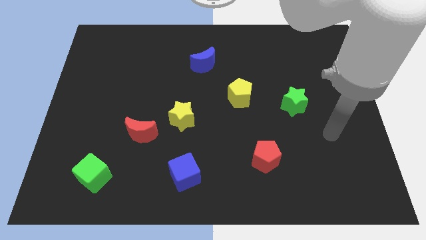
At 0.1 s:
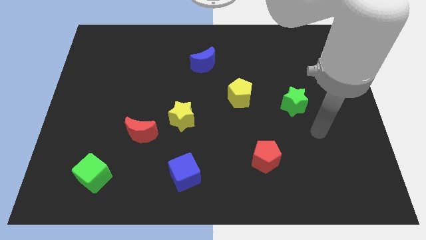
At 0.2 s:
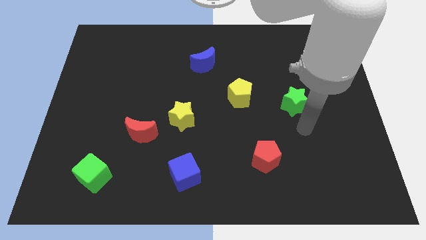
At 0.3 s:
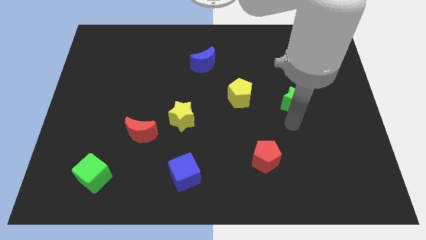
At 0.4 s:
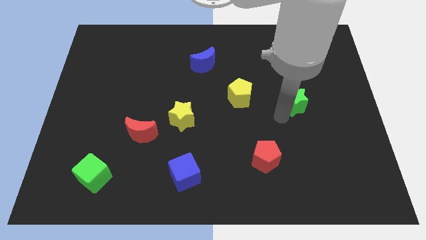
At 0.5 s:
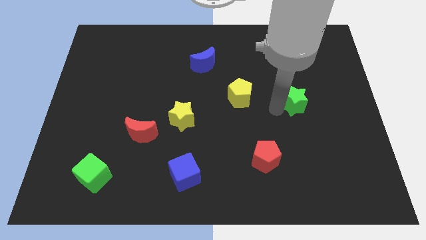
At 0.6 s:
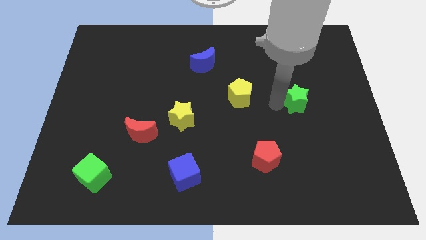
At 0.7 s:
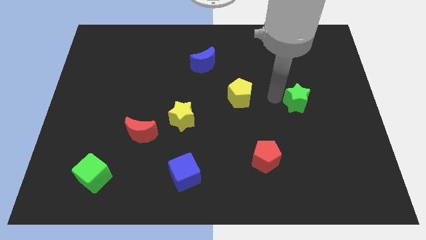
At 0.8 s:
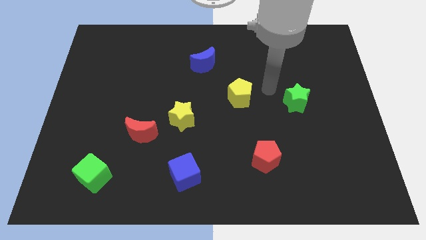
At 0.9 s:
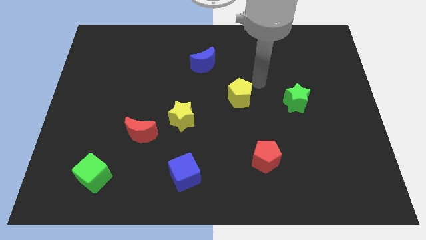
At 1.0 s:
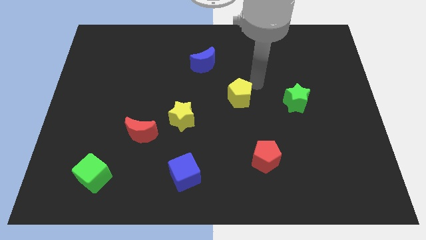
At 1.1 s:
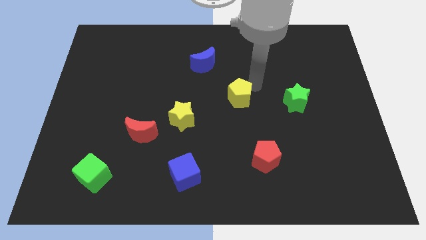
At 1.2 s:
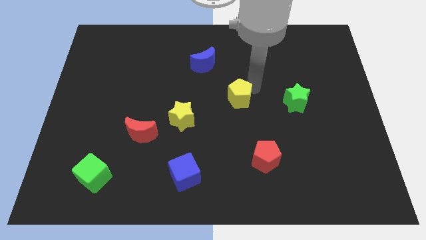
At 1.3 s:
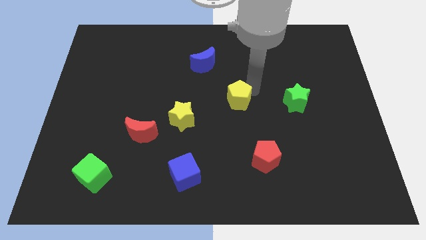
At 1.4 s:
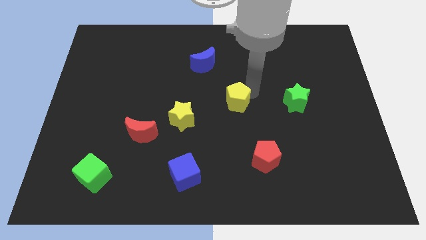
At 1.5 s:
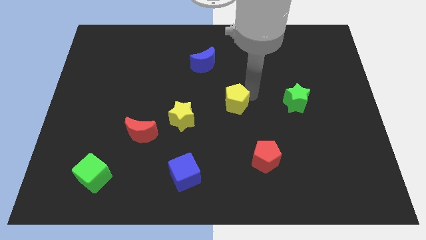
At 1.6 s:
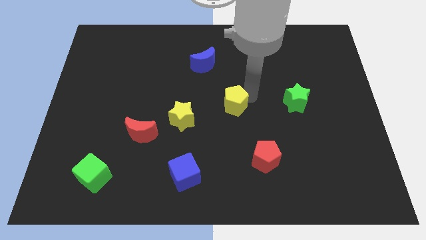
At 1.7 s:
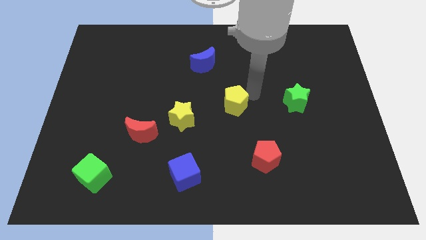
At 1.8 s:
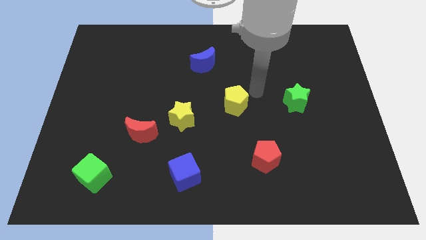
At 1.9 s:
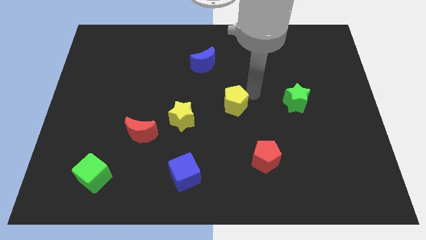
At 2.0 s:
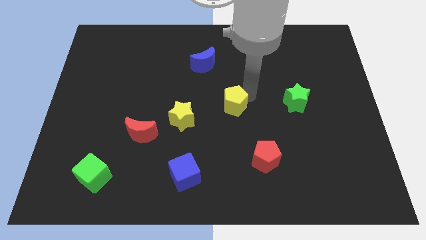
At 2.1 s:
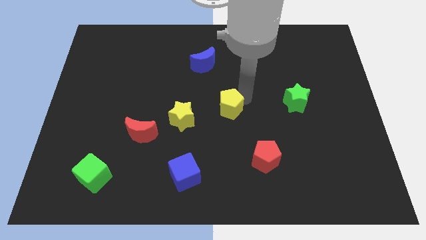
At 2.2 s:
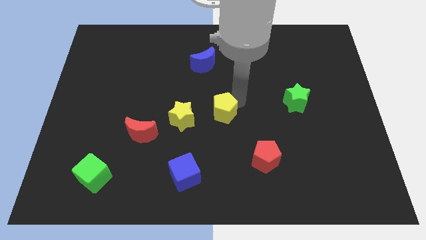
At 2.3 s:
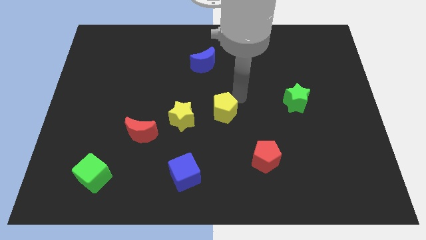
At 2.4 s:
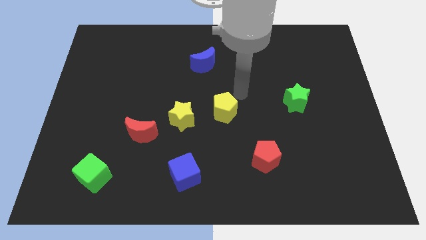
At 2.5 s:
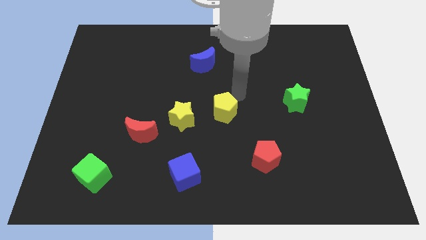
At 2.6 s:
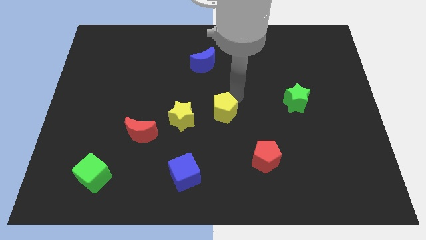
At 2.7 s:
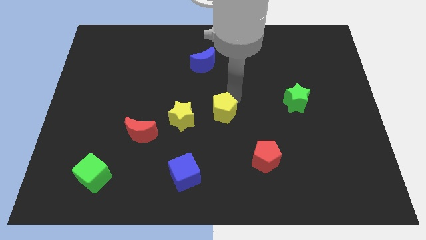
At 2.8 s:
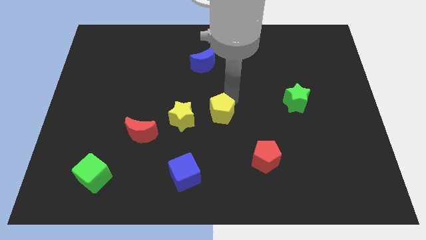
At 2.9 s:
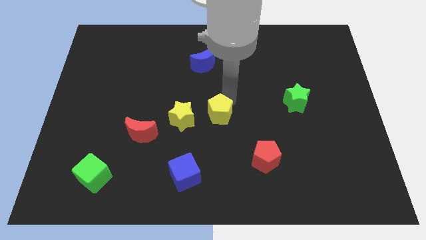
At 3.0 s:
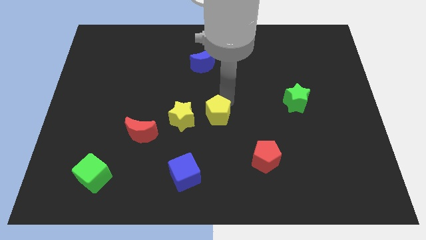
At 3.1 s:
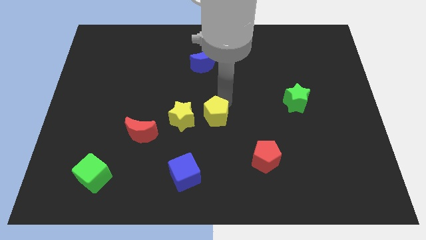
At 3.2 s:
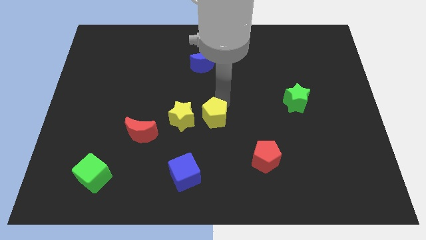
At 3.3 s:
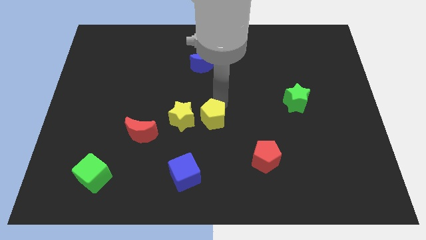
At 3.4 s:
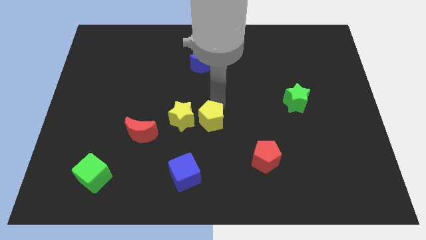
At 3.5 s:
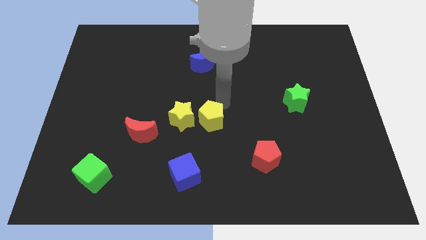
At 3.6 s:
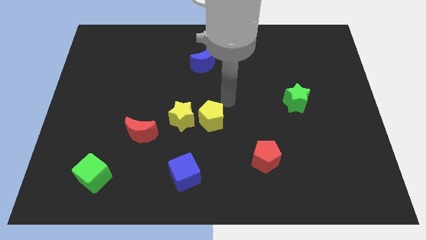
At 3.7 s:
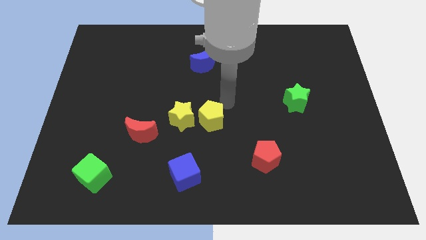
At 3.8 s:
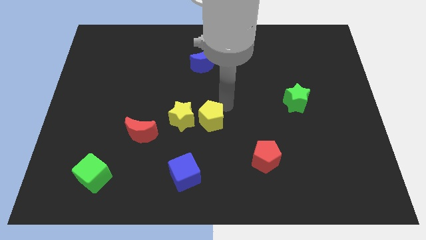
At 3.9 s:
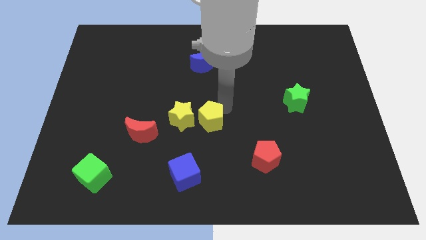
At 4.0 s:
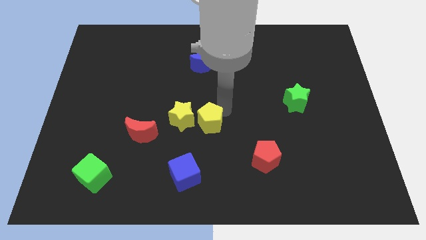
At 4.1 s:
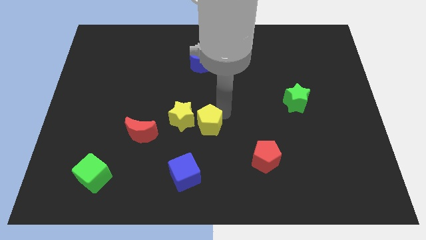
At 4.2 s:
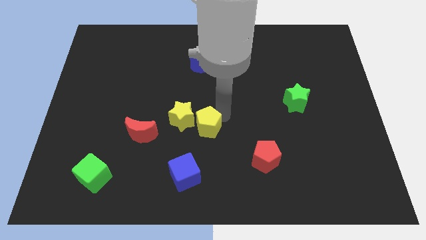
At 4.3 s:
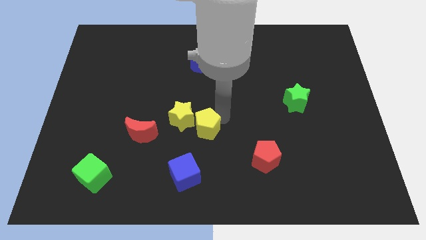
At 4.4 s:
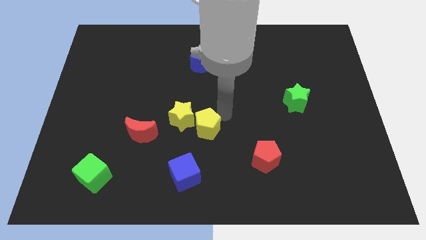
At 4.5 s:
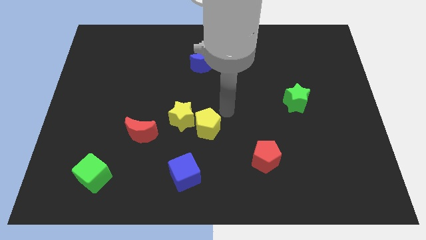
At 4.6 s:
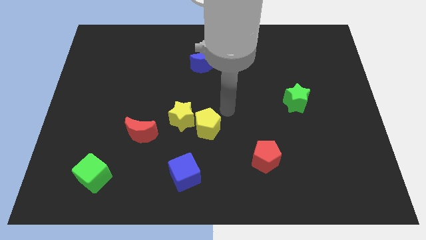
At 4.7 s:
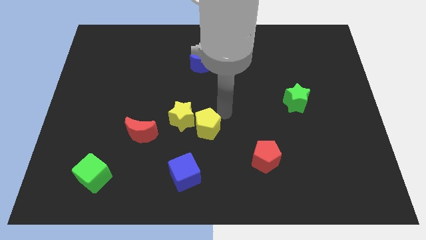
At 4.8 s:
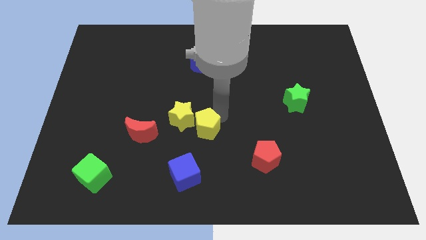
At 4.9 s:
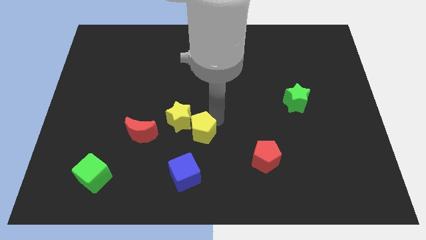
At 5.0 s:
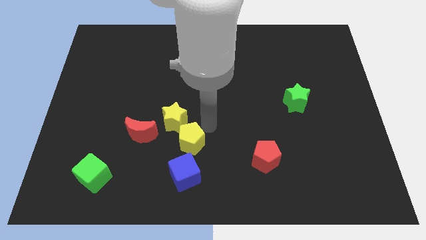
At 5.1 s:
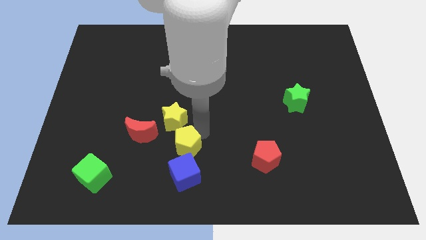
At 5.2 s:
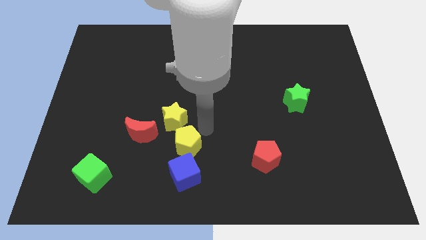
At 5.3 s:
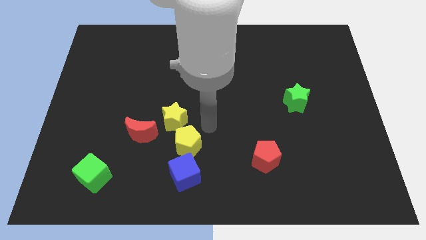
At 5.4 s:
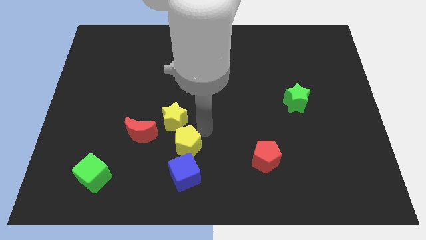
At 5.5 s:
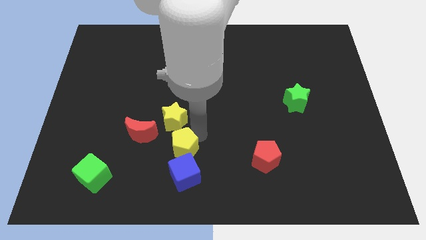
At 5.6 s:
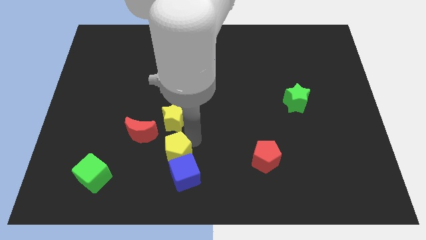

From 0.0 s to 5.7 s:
push the yellow pentagon diagonally downwards and left

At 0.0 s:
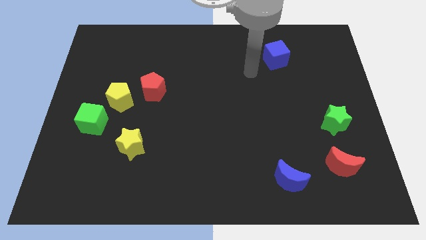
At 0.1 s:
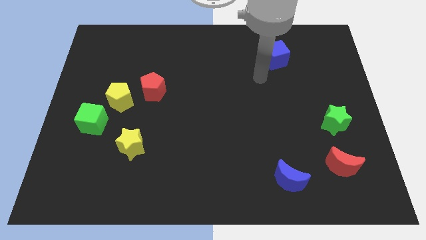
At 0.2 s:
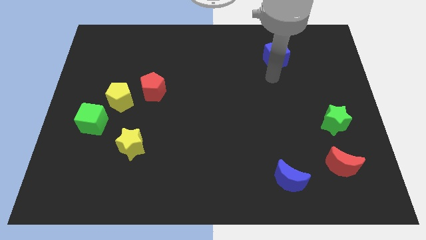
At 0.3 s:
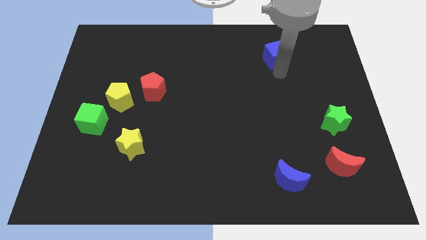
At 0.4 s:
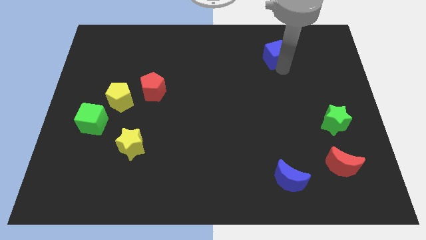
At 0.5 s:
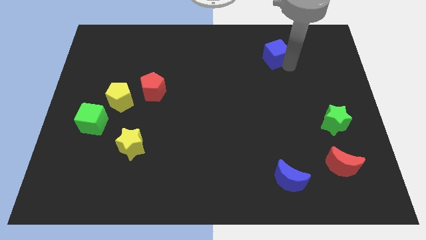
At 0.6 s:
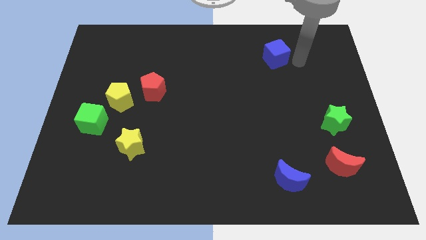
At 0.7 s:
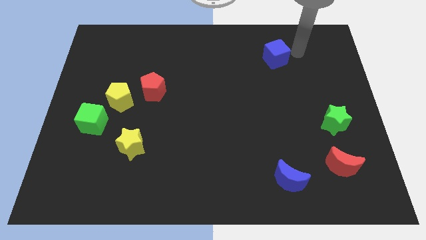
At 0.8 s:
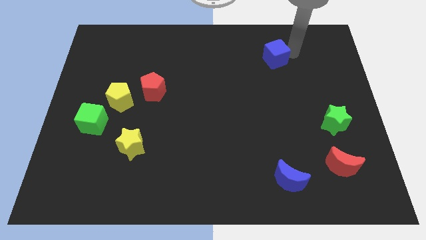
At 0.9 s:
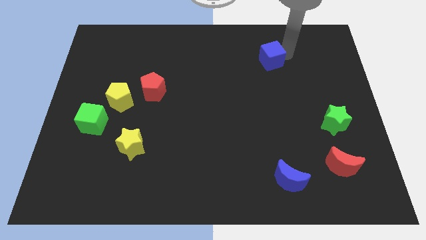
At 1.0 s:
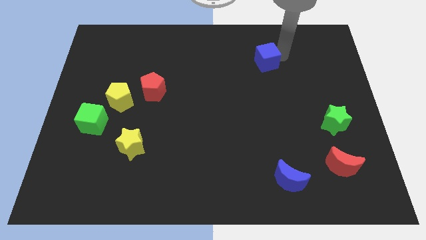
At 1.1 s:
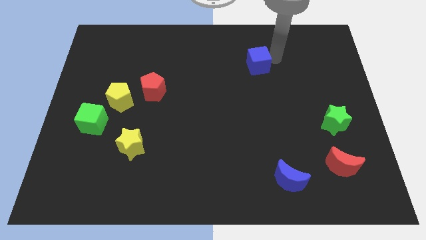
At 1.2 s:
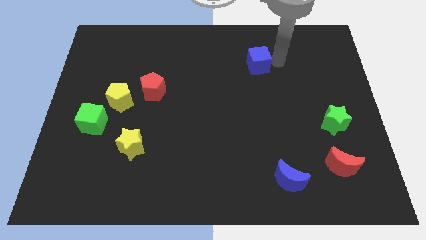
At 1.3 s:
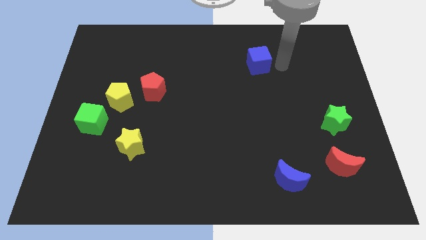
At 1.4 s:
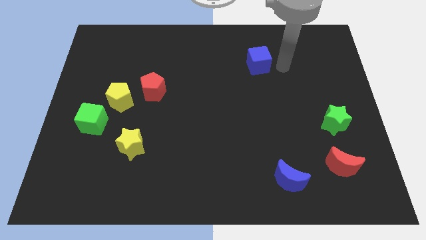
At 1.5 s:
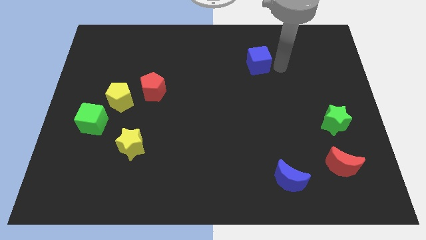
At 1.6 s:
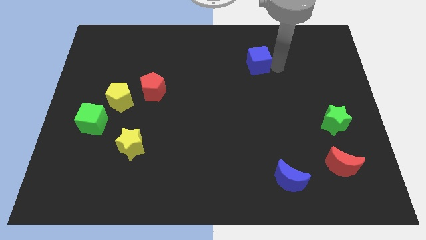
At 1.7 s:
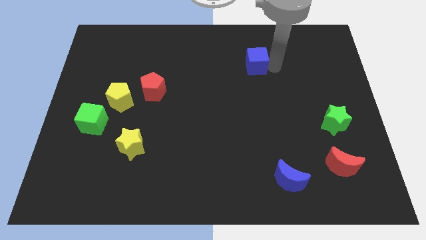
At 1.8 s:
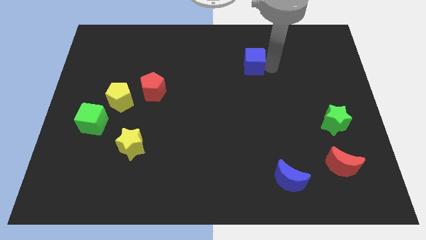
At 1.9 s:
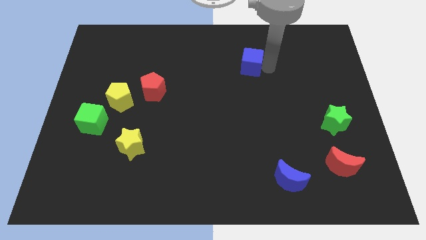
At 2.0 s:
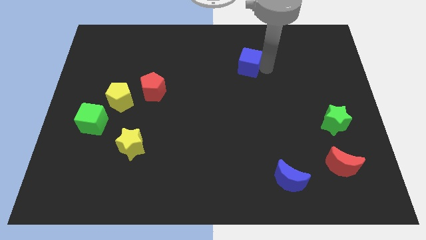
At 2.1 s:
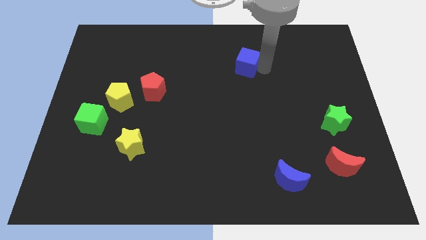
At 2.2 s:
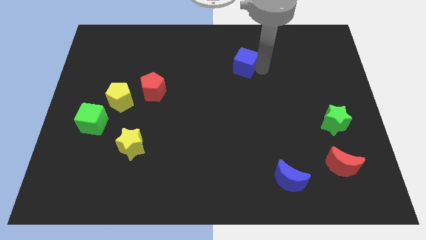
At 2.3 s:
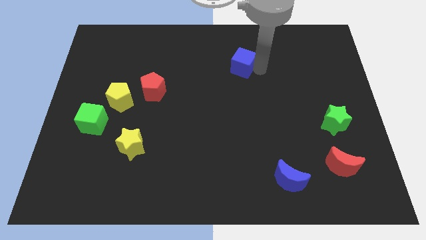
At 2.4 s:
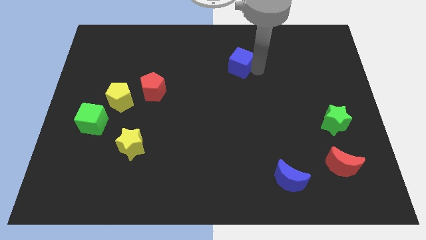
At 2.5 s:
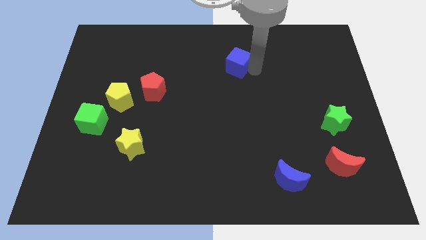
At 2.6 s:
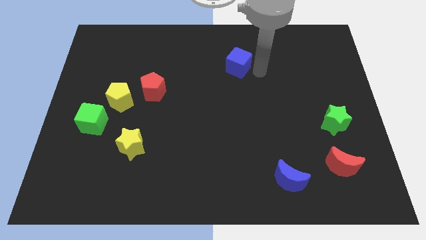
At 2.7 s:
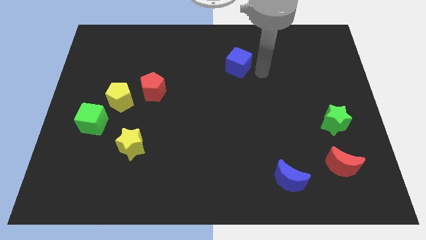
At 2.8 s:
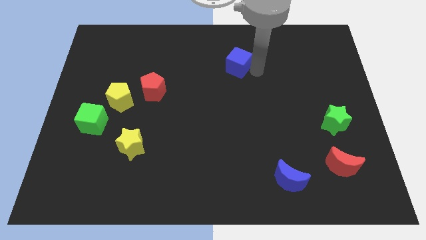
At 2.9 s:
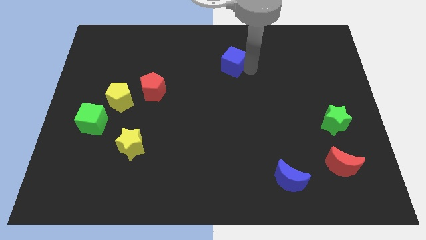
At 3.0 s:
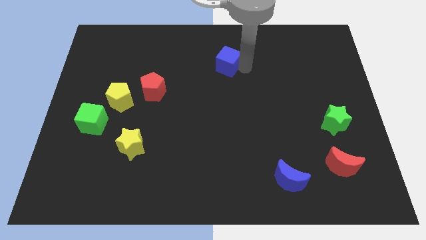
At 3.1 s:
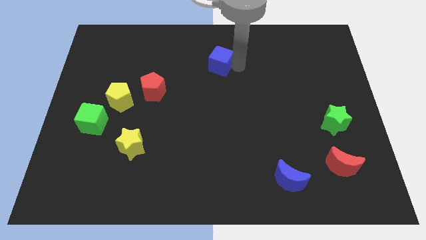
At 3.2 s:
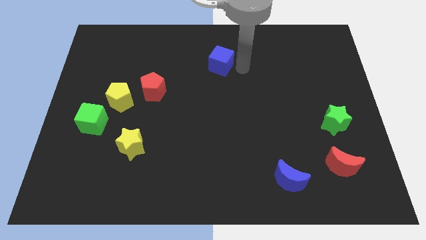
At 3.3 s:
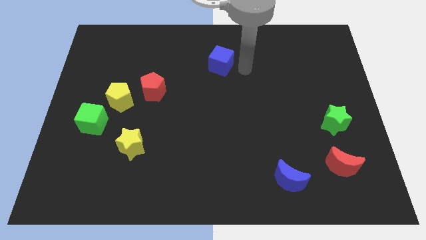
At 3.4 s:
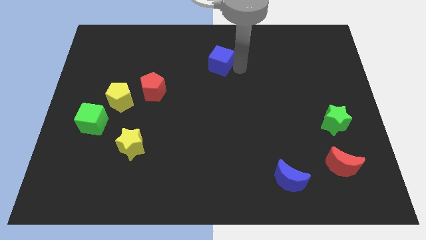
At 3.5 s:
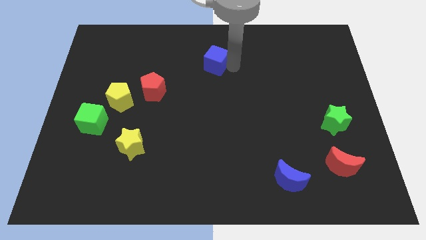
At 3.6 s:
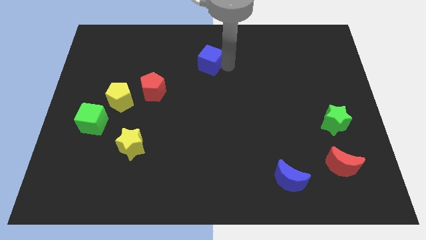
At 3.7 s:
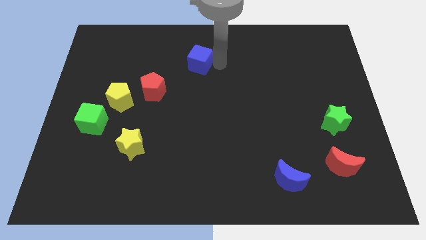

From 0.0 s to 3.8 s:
move the blue cube to the left
